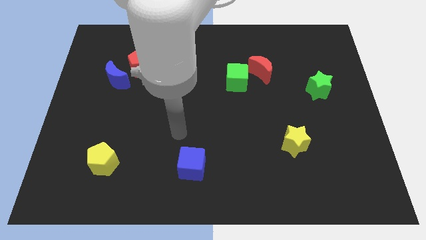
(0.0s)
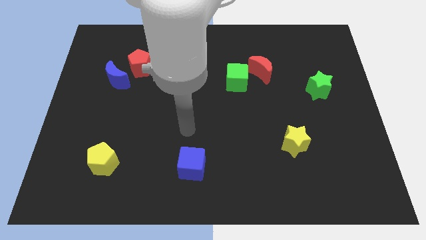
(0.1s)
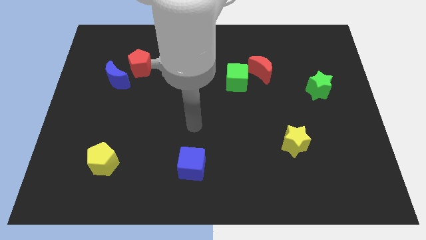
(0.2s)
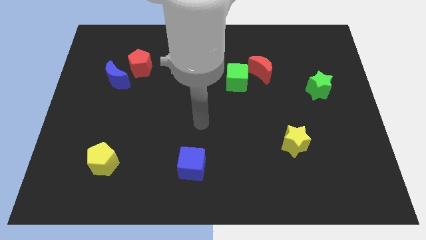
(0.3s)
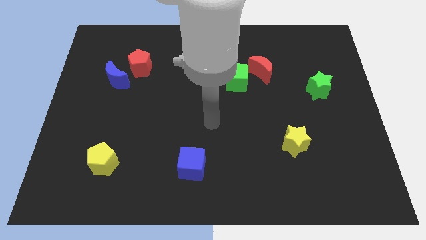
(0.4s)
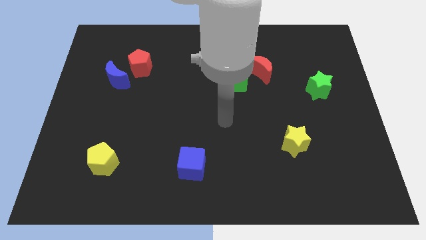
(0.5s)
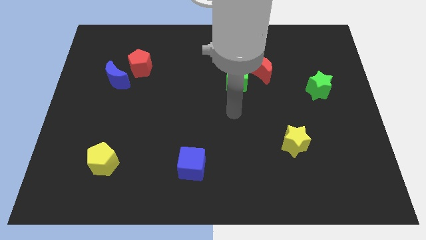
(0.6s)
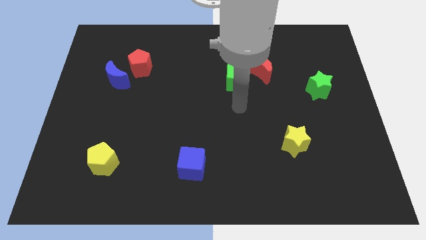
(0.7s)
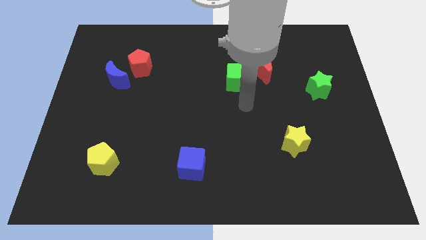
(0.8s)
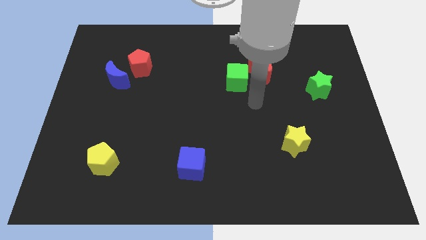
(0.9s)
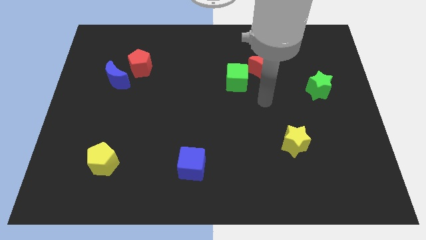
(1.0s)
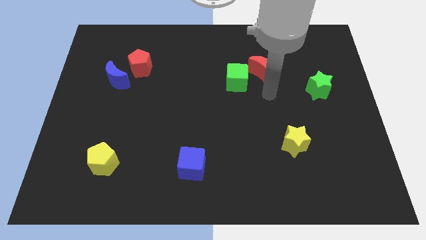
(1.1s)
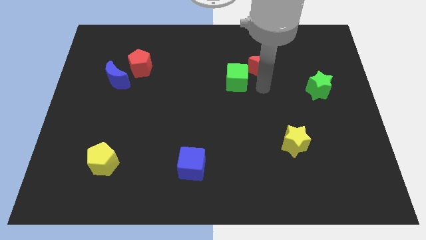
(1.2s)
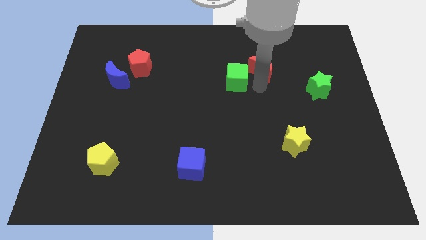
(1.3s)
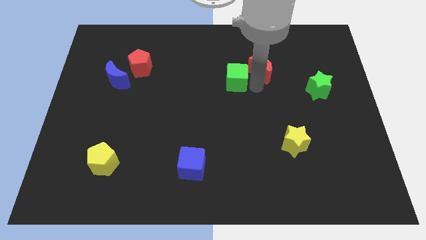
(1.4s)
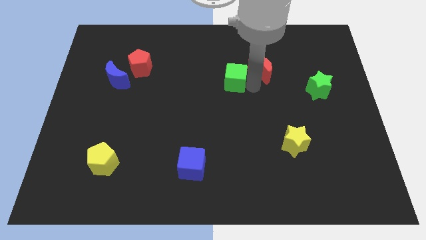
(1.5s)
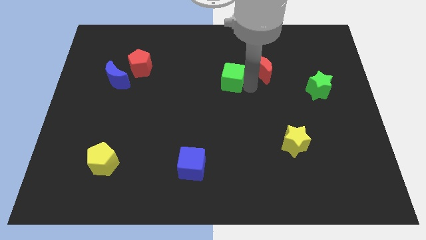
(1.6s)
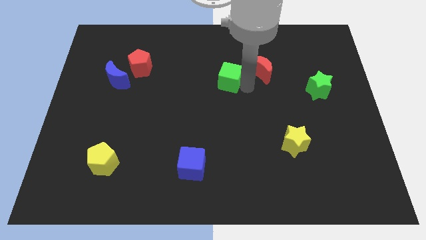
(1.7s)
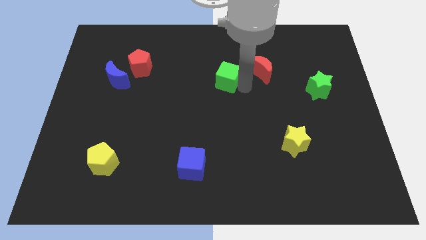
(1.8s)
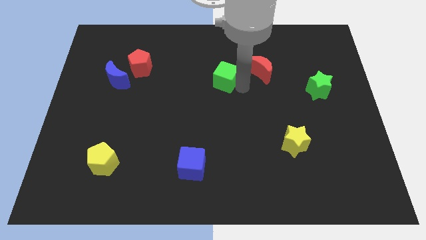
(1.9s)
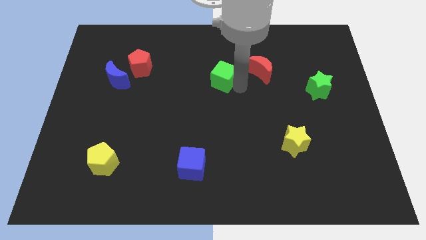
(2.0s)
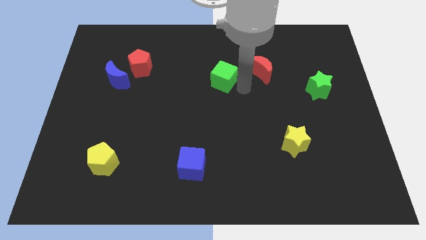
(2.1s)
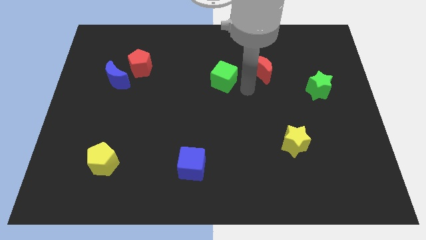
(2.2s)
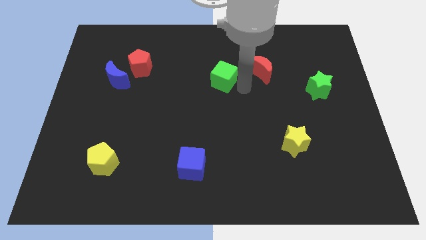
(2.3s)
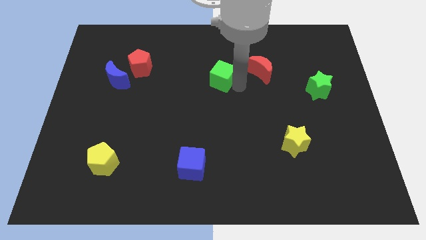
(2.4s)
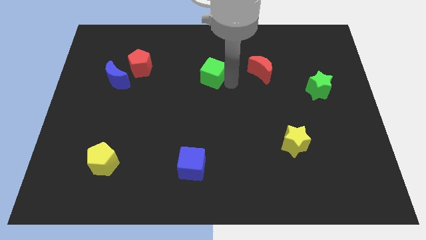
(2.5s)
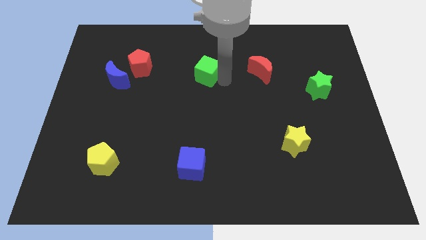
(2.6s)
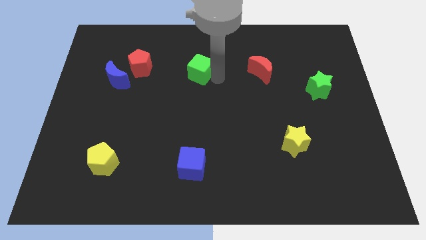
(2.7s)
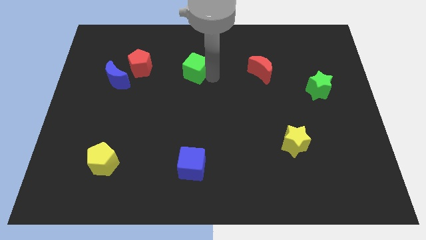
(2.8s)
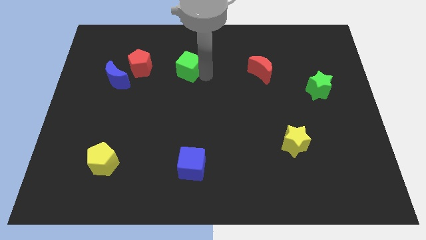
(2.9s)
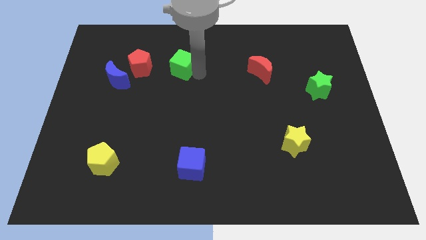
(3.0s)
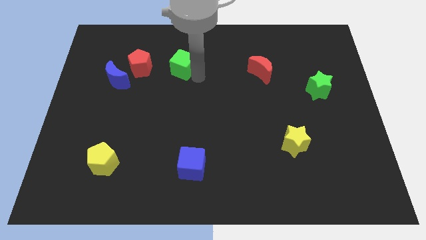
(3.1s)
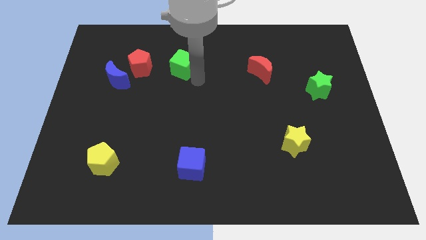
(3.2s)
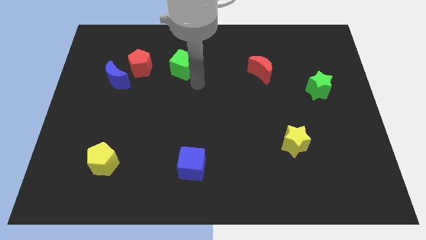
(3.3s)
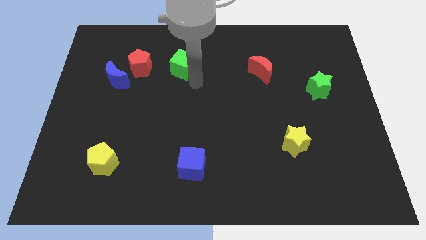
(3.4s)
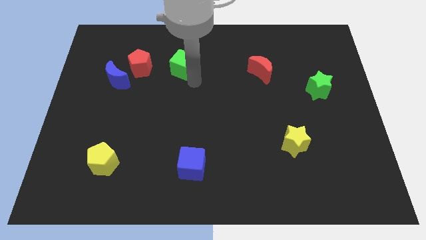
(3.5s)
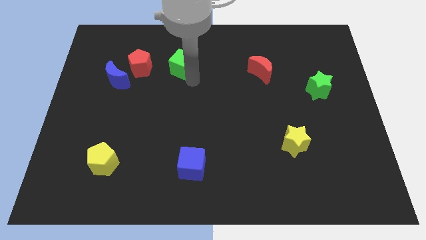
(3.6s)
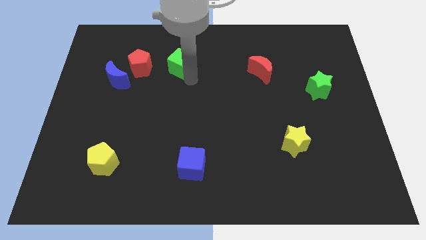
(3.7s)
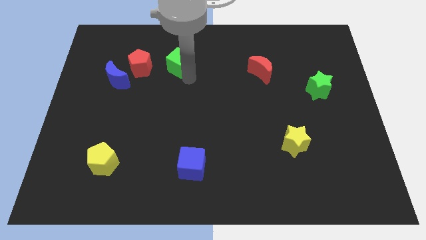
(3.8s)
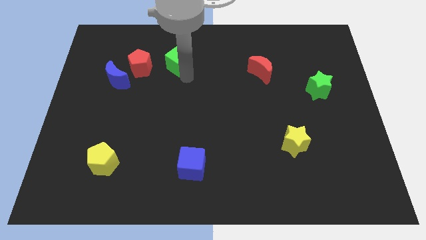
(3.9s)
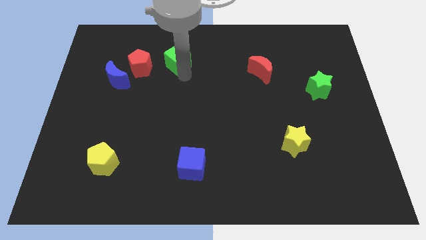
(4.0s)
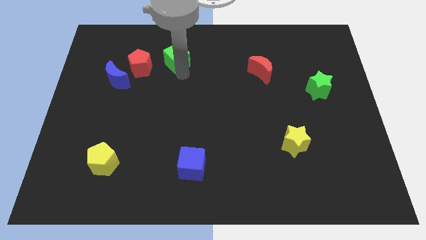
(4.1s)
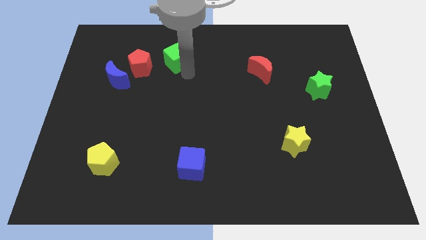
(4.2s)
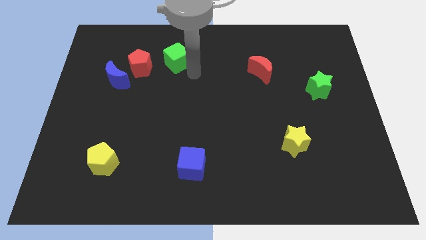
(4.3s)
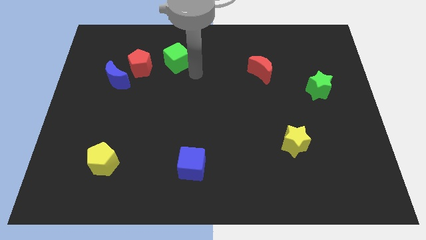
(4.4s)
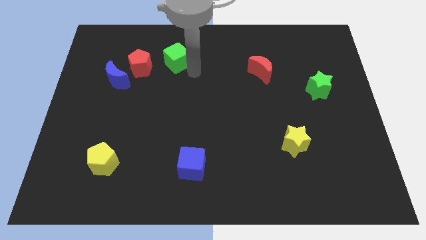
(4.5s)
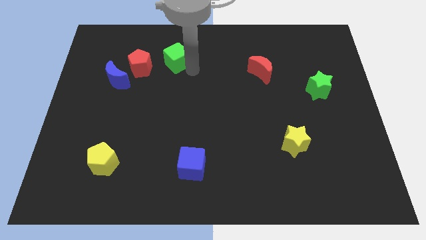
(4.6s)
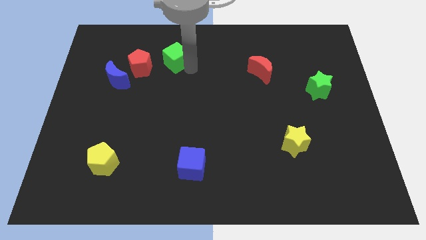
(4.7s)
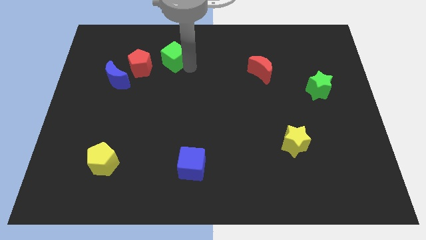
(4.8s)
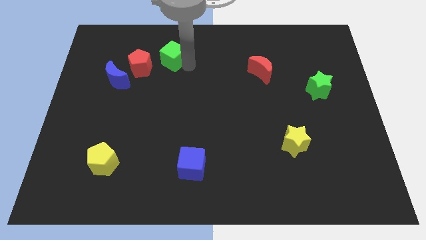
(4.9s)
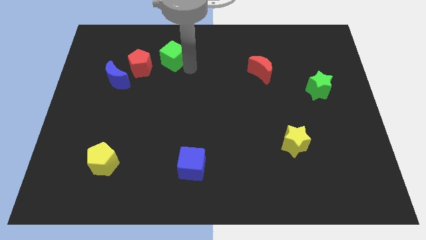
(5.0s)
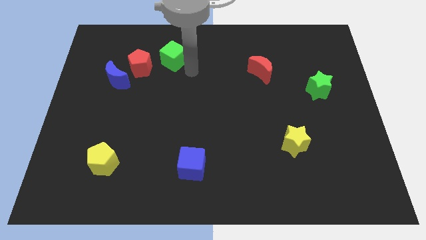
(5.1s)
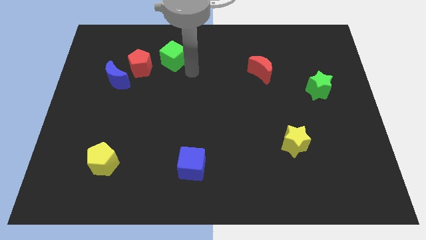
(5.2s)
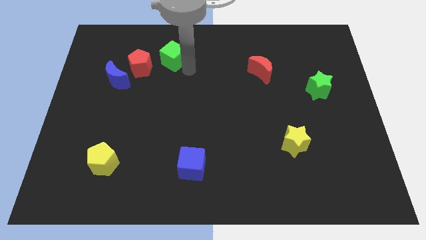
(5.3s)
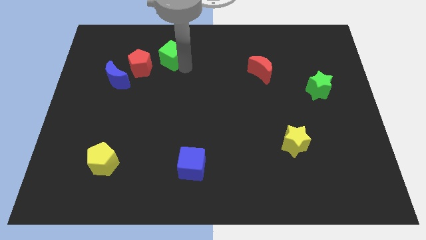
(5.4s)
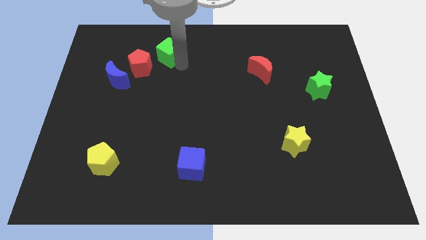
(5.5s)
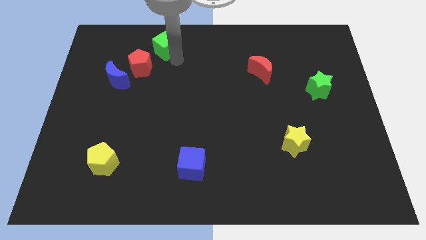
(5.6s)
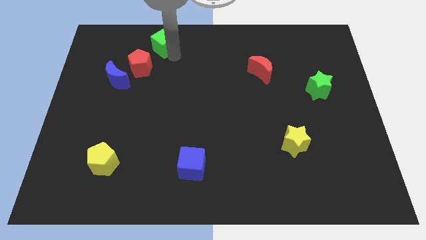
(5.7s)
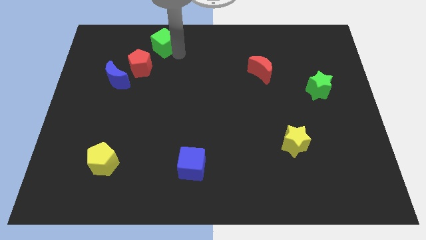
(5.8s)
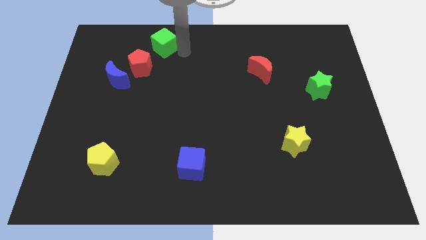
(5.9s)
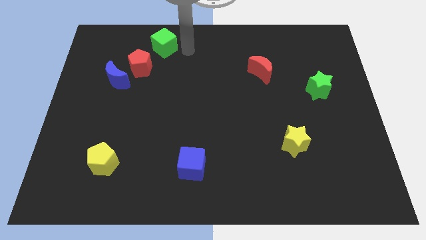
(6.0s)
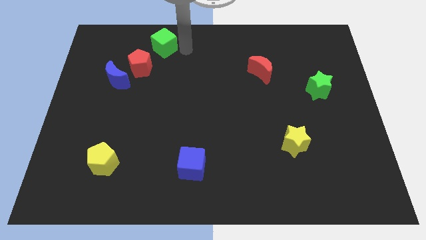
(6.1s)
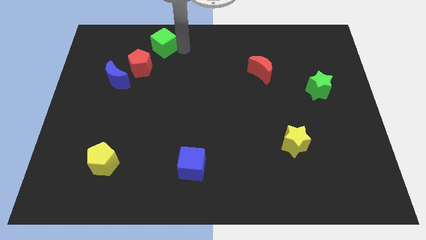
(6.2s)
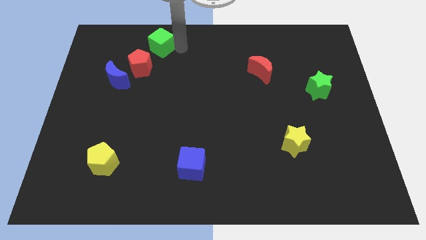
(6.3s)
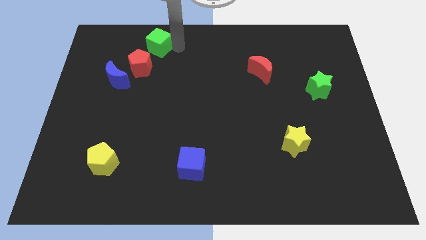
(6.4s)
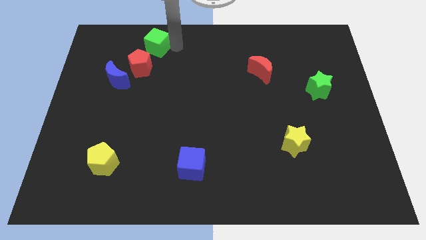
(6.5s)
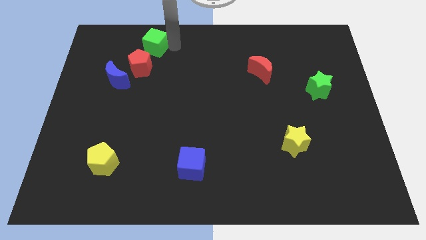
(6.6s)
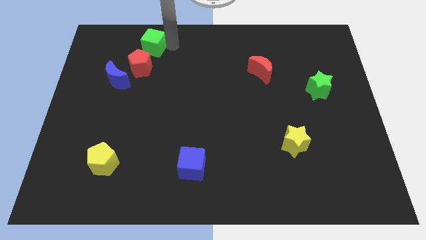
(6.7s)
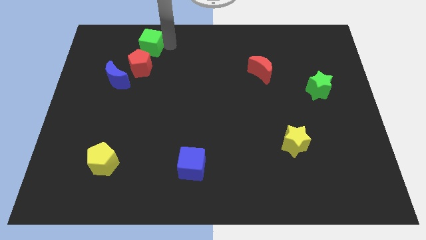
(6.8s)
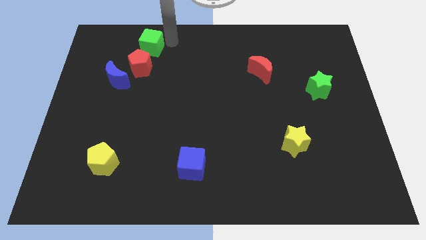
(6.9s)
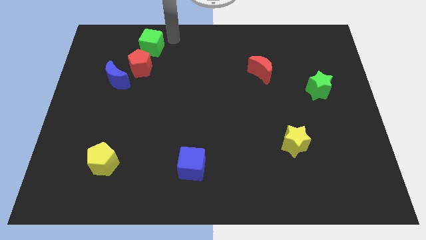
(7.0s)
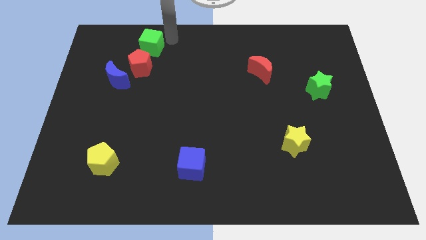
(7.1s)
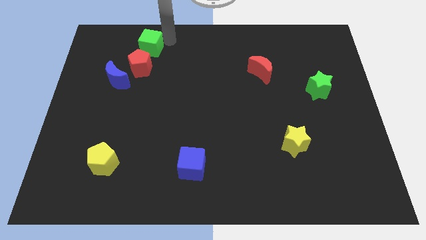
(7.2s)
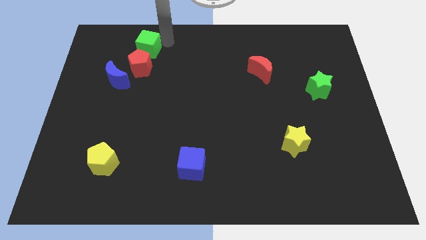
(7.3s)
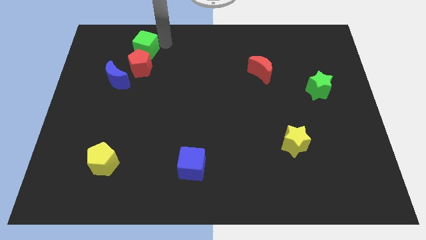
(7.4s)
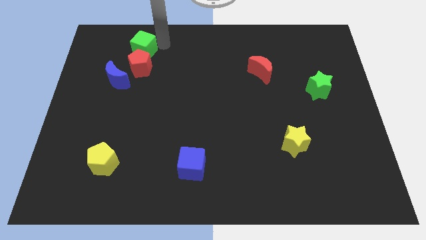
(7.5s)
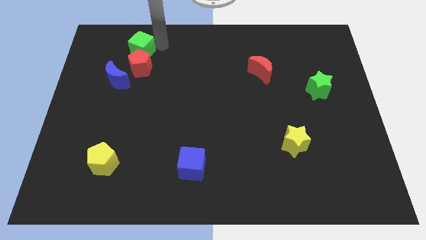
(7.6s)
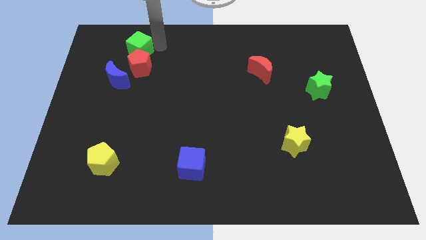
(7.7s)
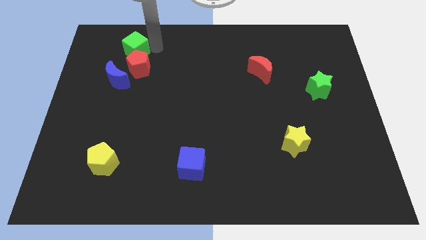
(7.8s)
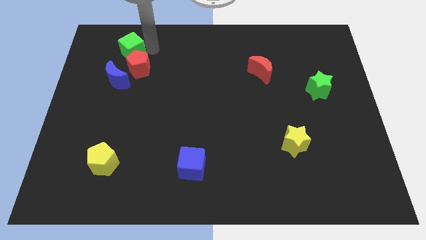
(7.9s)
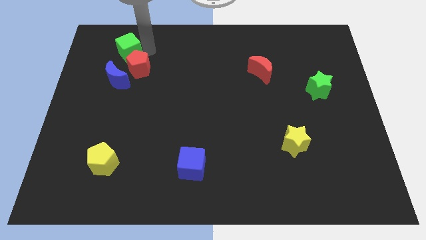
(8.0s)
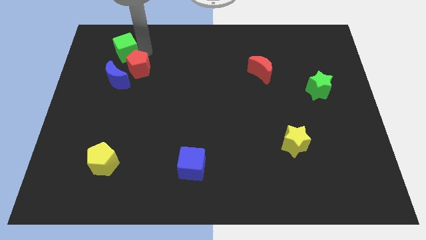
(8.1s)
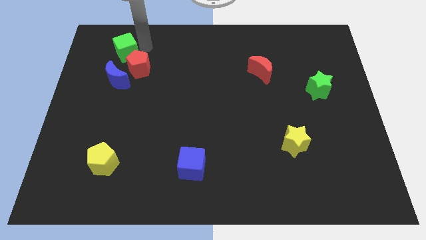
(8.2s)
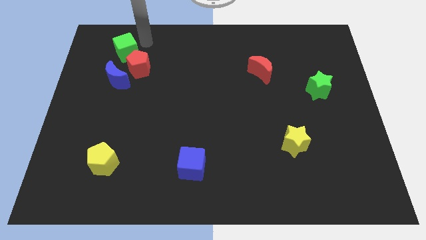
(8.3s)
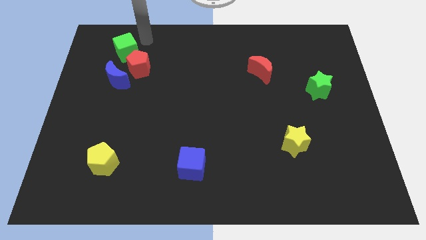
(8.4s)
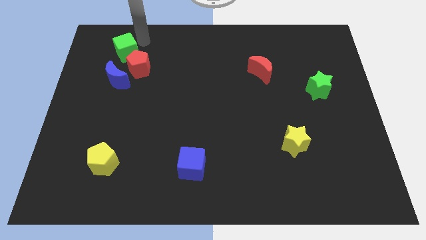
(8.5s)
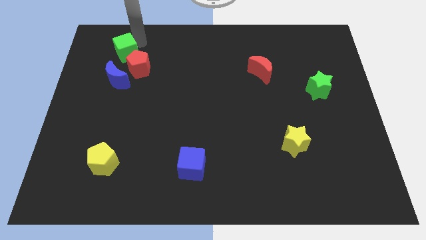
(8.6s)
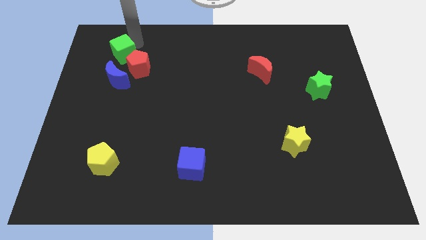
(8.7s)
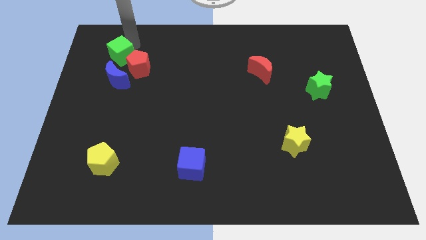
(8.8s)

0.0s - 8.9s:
push the green cube just left of the red pentagon
